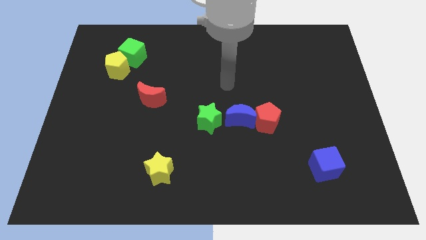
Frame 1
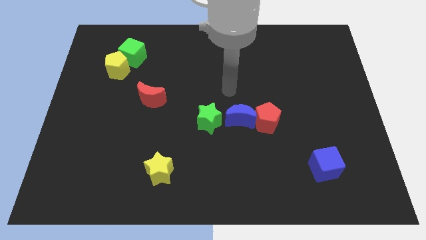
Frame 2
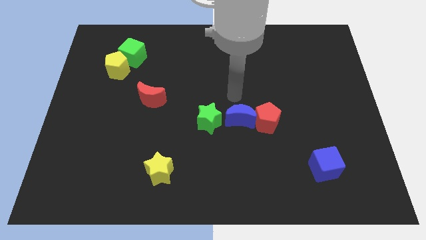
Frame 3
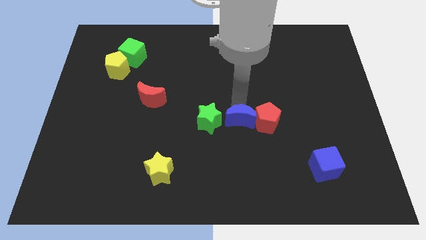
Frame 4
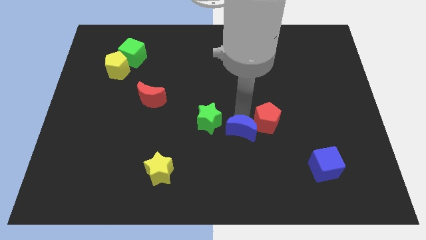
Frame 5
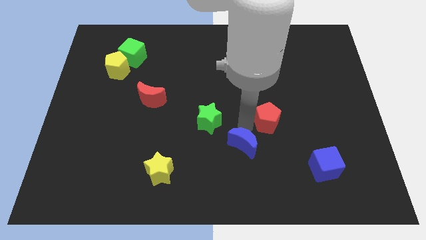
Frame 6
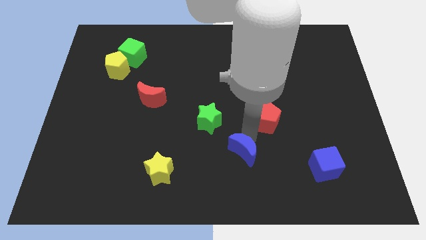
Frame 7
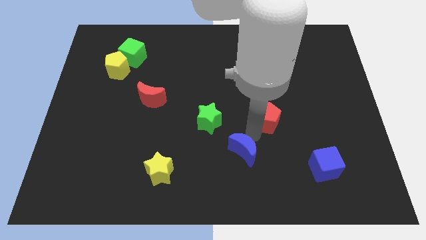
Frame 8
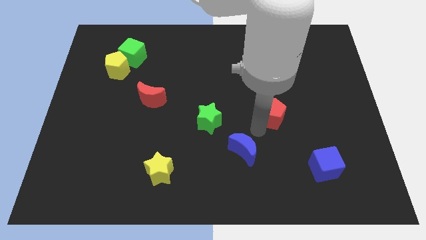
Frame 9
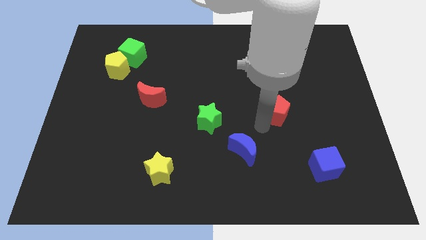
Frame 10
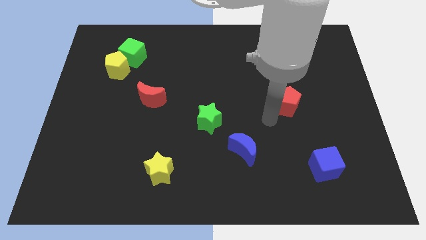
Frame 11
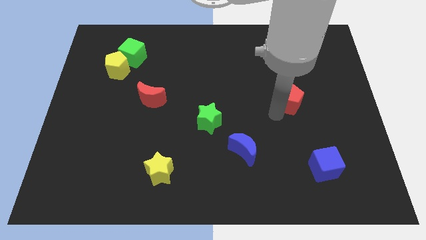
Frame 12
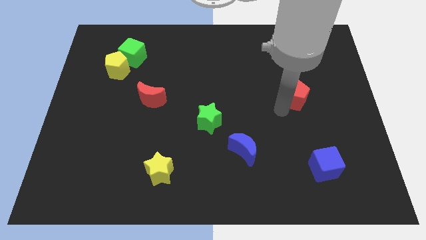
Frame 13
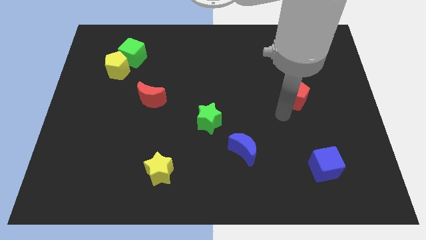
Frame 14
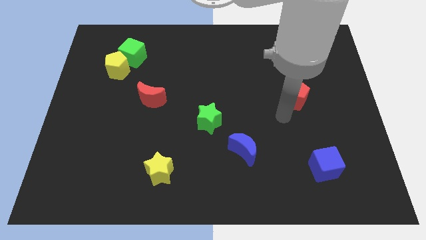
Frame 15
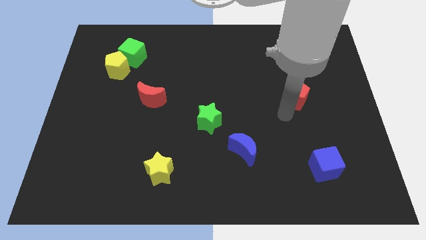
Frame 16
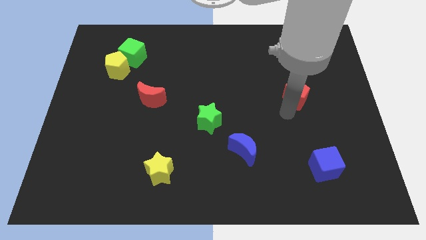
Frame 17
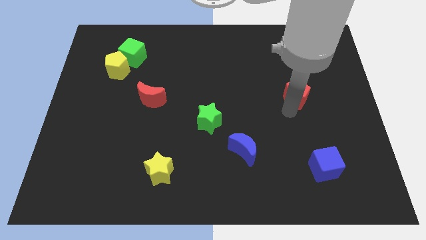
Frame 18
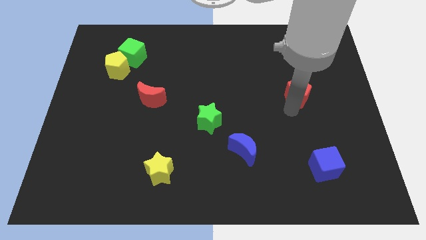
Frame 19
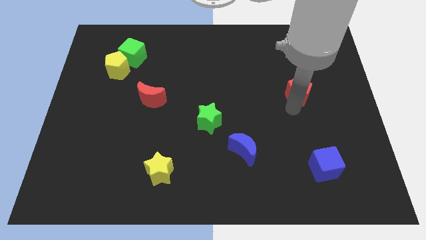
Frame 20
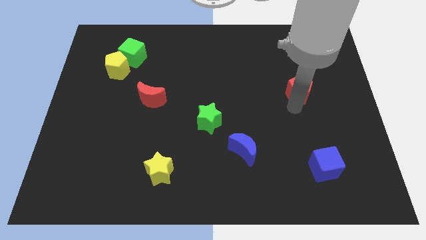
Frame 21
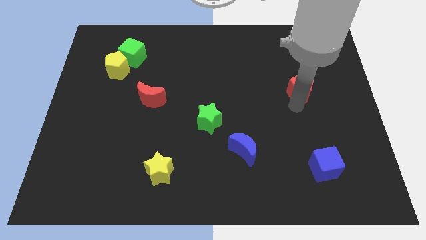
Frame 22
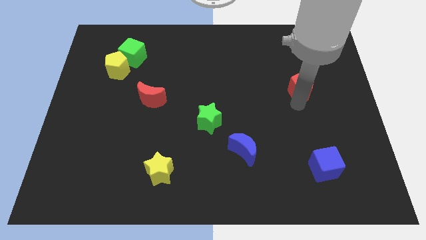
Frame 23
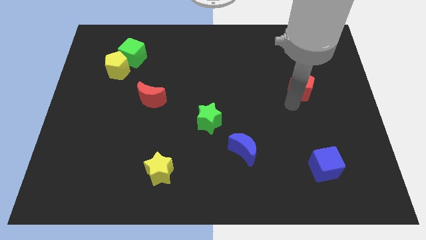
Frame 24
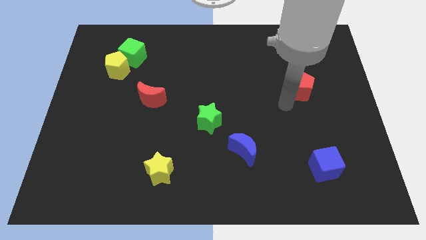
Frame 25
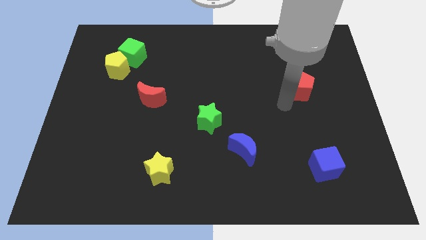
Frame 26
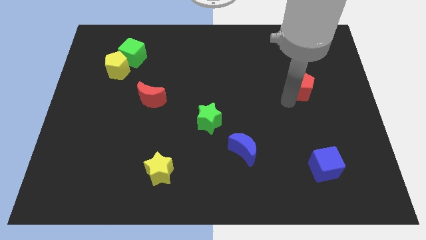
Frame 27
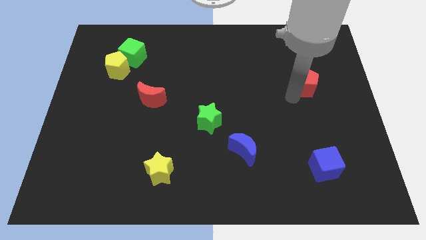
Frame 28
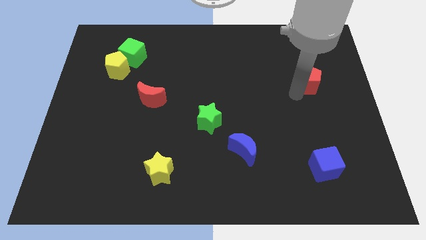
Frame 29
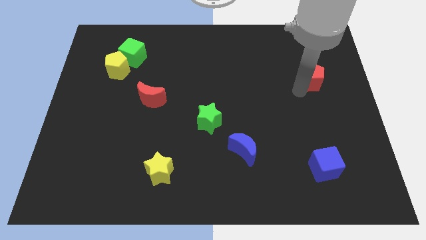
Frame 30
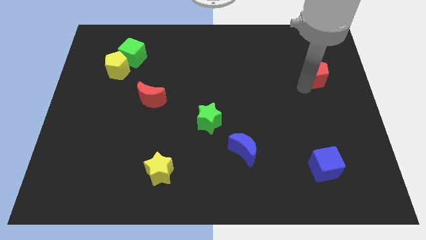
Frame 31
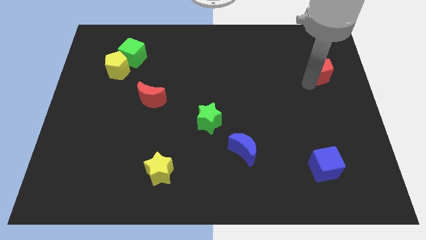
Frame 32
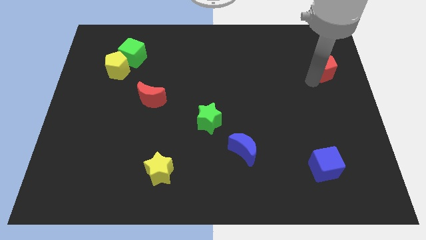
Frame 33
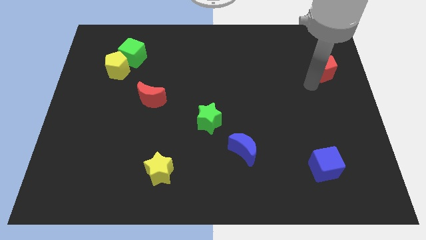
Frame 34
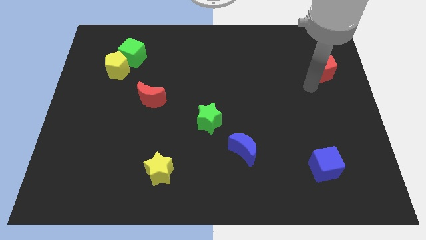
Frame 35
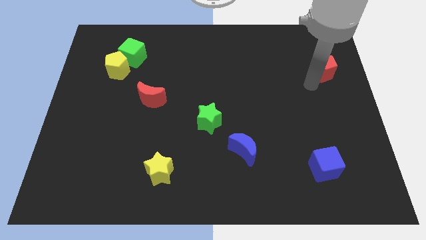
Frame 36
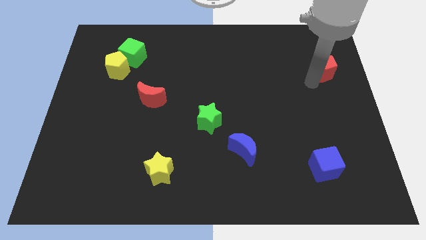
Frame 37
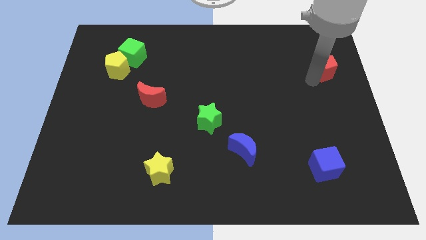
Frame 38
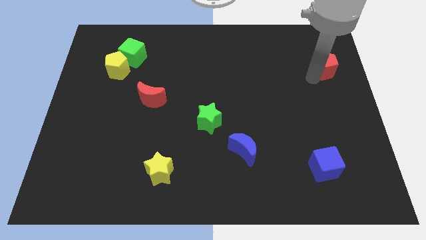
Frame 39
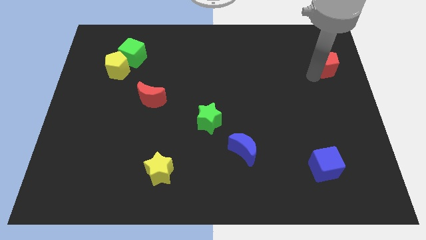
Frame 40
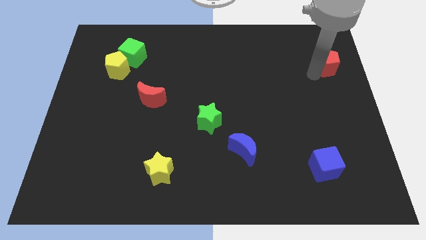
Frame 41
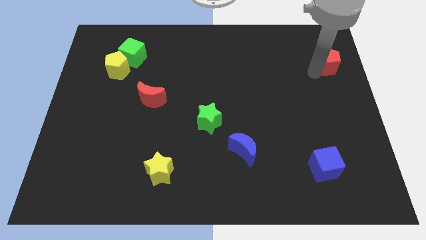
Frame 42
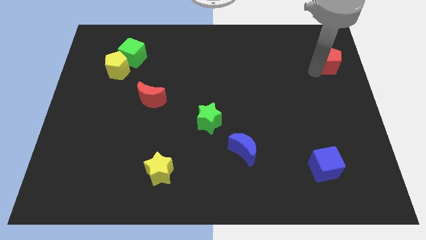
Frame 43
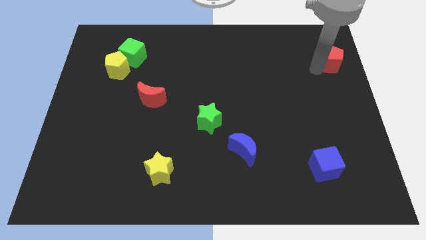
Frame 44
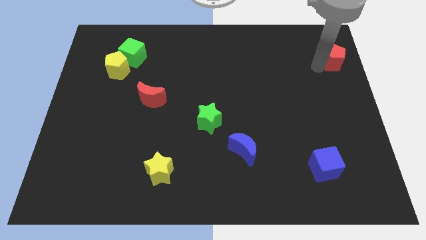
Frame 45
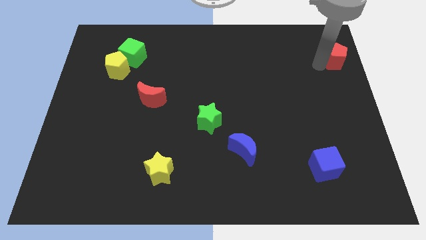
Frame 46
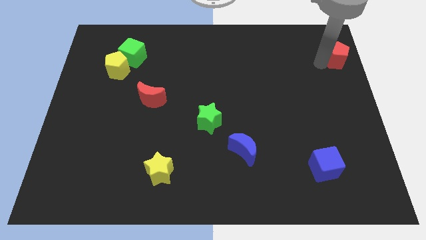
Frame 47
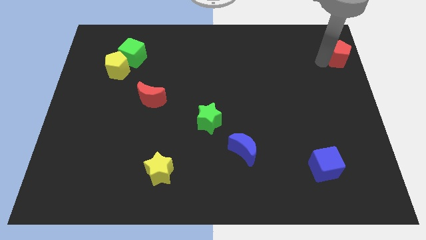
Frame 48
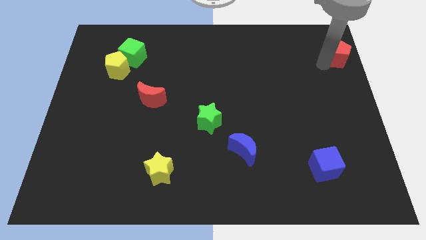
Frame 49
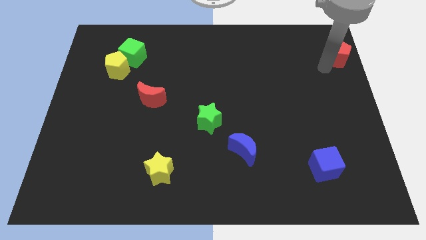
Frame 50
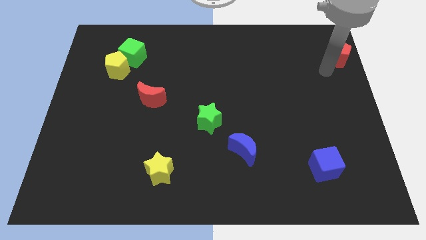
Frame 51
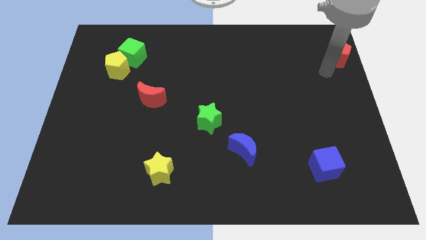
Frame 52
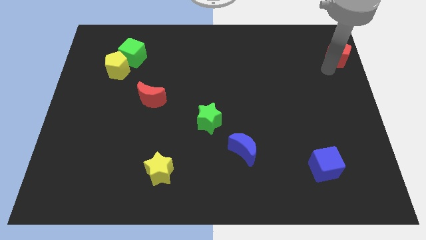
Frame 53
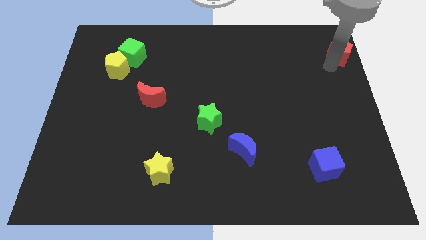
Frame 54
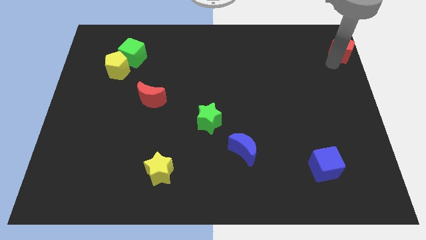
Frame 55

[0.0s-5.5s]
put the red pentagon to the top right
